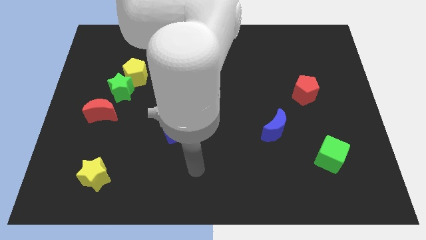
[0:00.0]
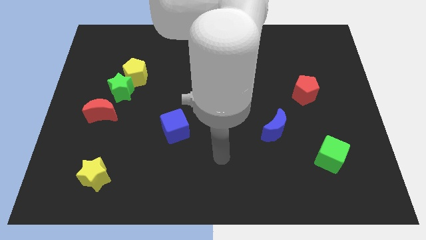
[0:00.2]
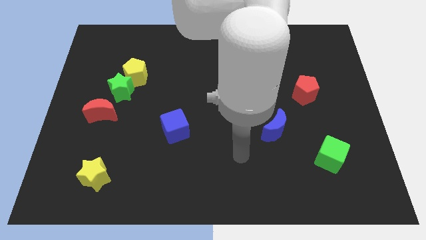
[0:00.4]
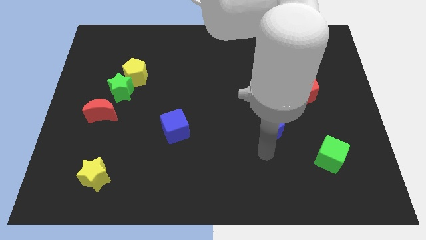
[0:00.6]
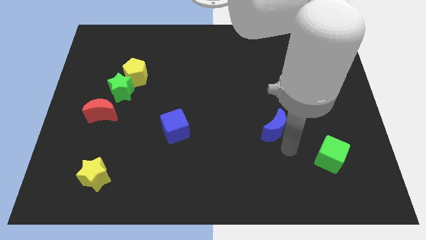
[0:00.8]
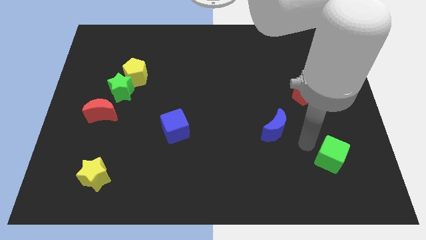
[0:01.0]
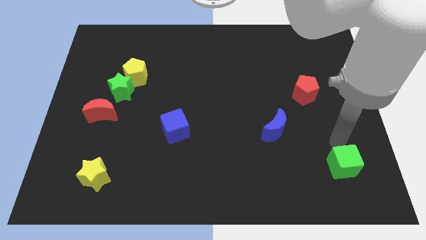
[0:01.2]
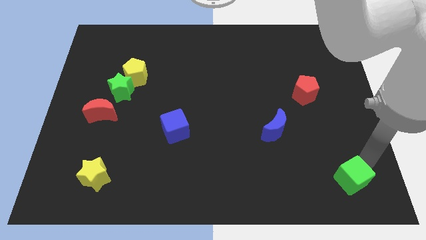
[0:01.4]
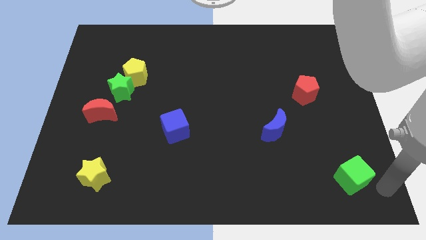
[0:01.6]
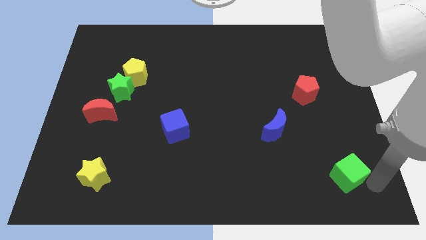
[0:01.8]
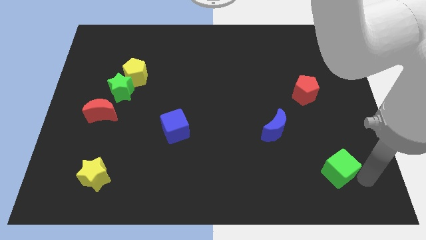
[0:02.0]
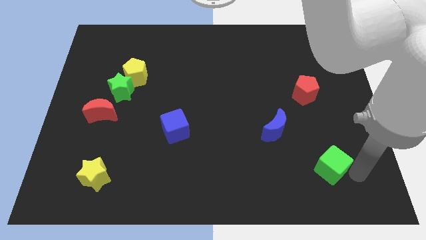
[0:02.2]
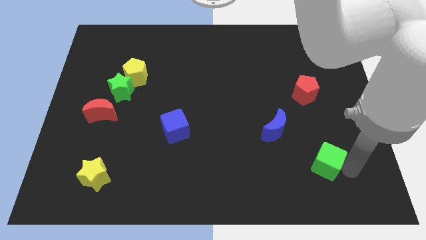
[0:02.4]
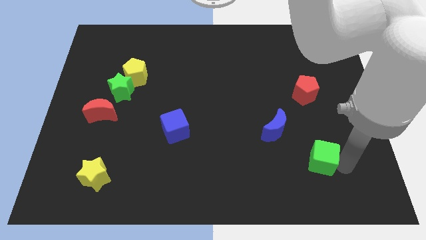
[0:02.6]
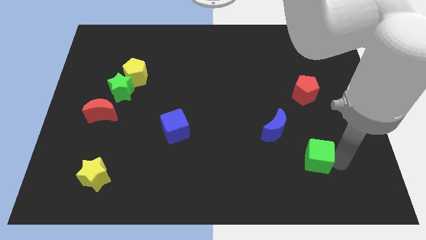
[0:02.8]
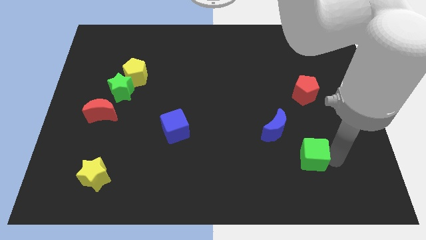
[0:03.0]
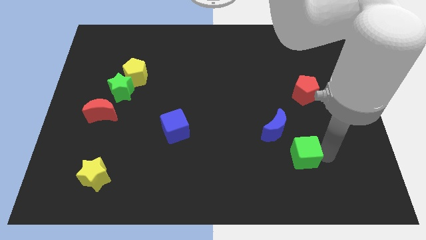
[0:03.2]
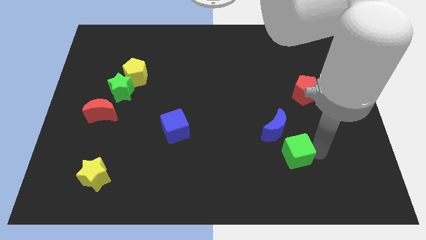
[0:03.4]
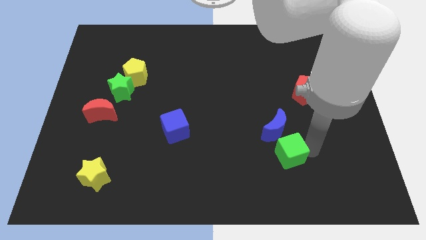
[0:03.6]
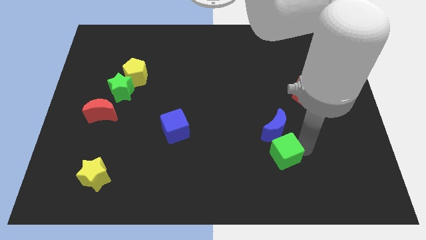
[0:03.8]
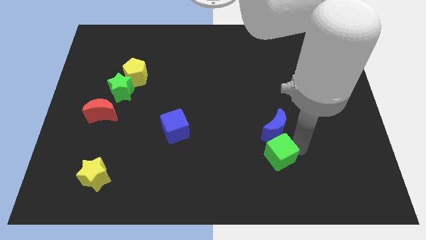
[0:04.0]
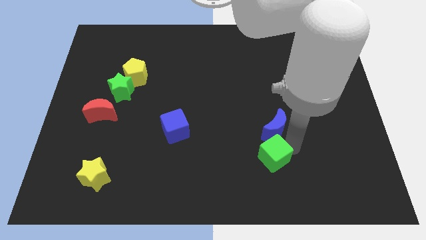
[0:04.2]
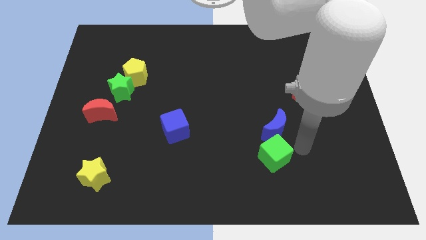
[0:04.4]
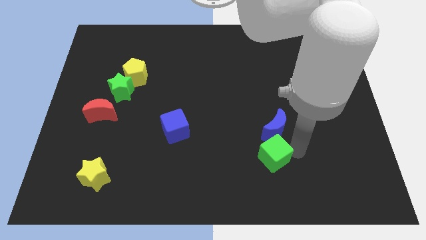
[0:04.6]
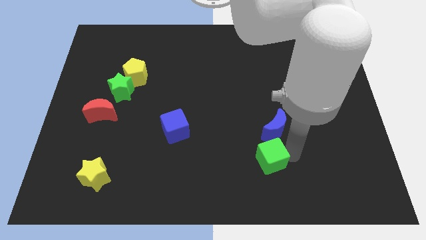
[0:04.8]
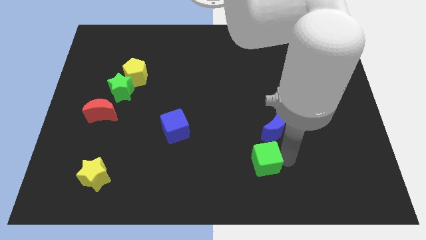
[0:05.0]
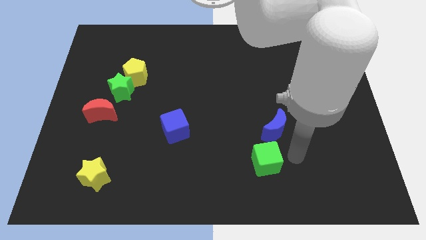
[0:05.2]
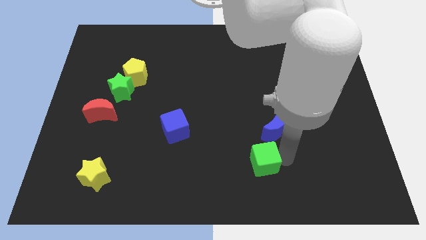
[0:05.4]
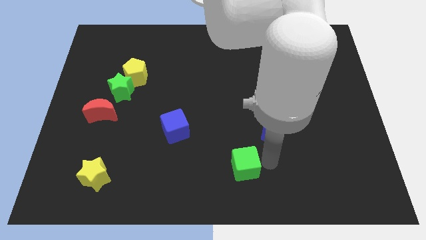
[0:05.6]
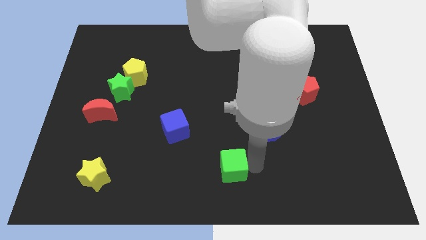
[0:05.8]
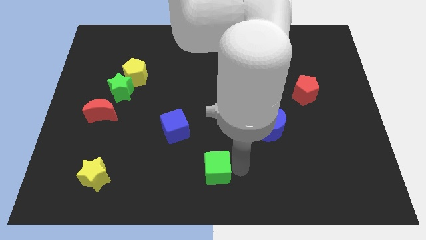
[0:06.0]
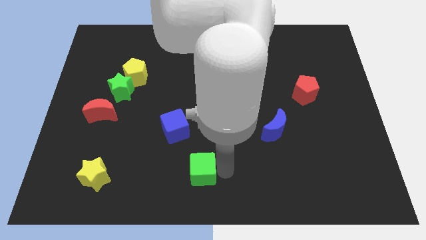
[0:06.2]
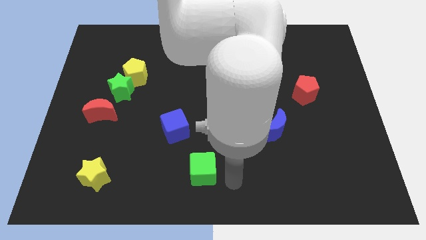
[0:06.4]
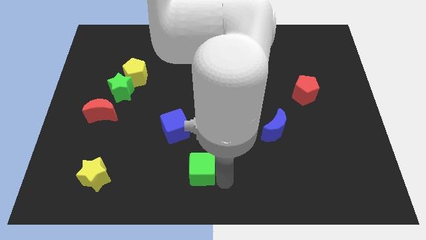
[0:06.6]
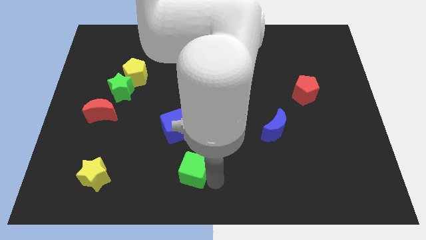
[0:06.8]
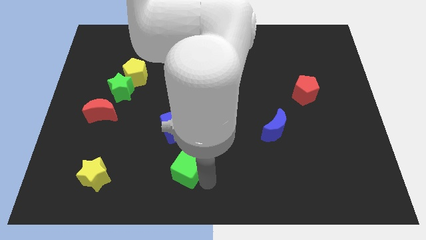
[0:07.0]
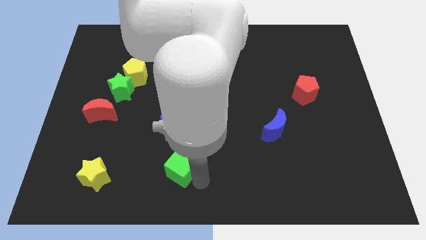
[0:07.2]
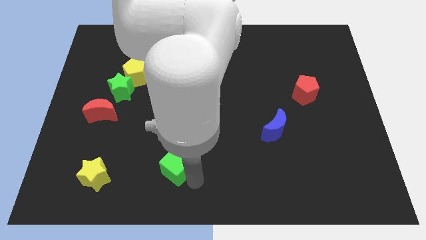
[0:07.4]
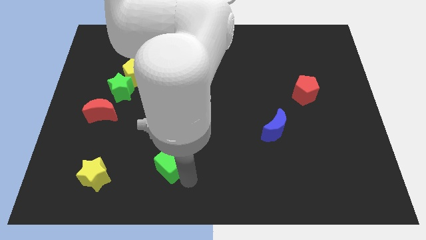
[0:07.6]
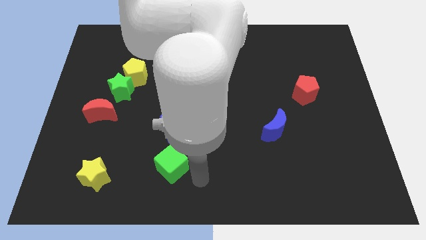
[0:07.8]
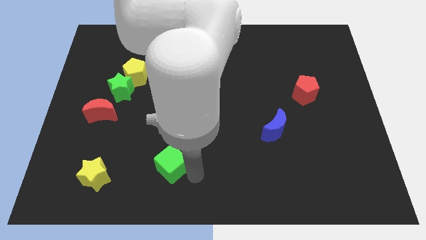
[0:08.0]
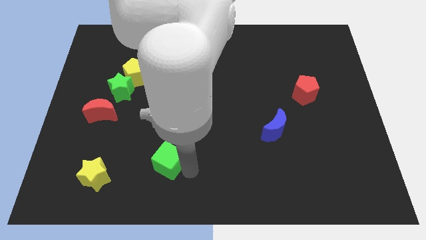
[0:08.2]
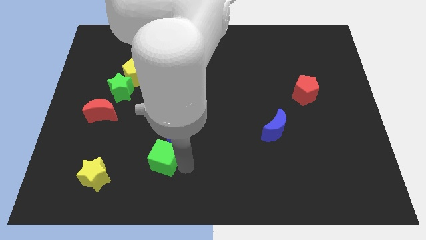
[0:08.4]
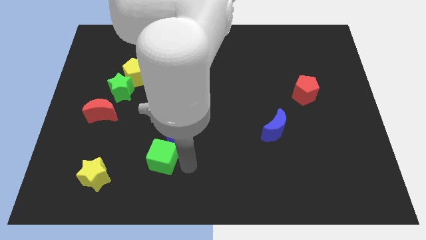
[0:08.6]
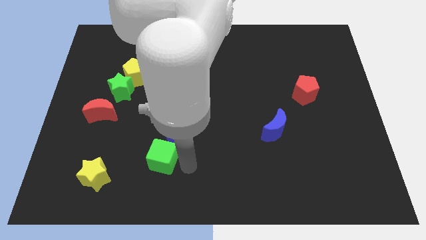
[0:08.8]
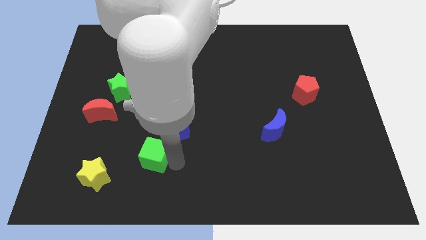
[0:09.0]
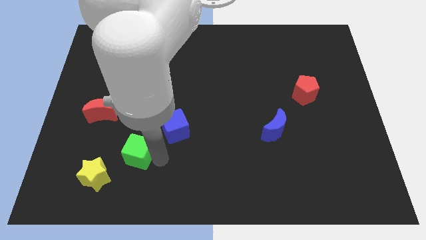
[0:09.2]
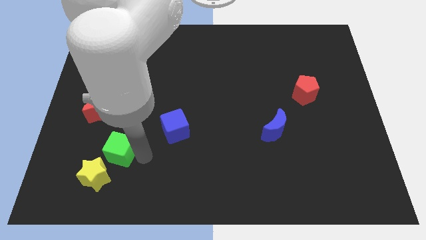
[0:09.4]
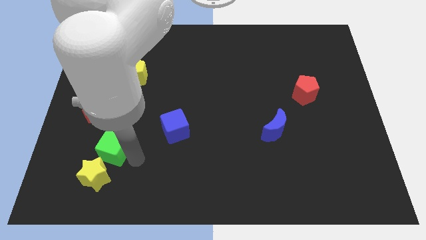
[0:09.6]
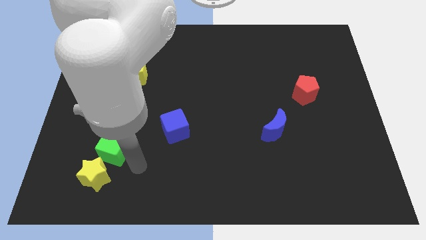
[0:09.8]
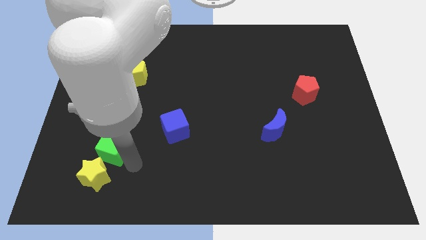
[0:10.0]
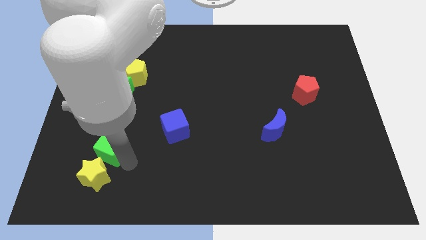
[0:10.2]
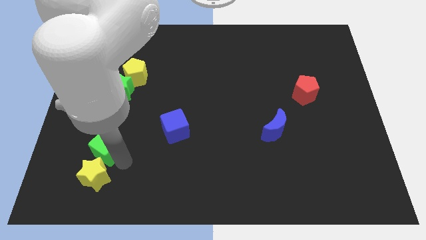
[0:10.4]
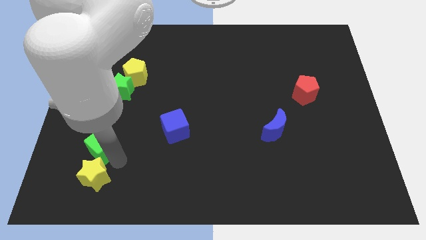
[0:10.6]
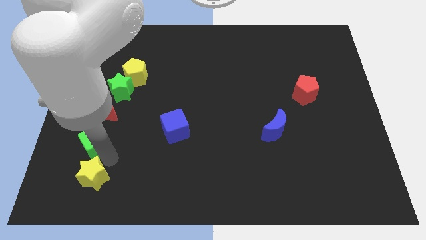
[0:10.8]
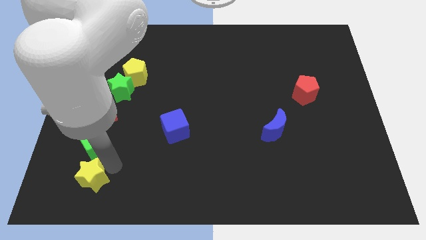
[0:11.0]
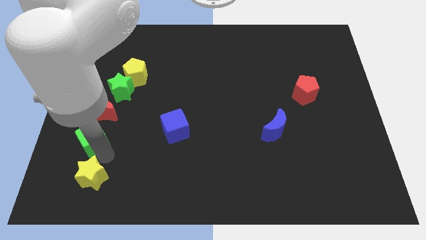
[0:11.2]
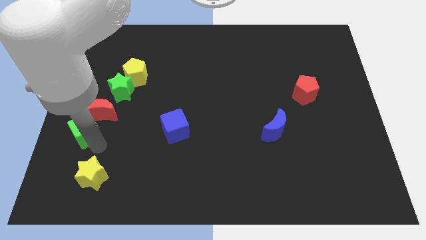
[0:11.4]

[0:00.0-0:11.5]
push the green cube to the left side
